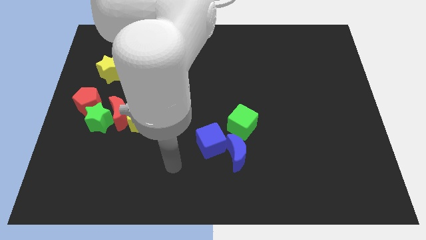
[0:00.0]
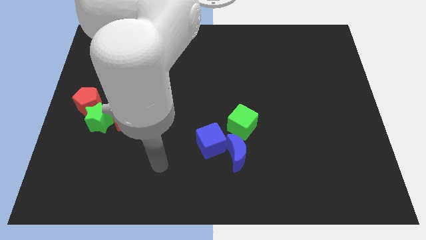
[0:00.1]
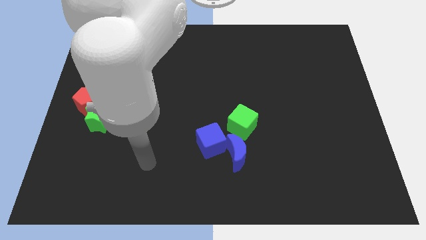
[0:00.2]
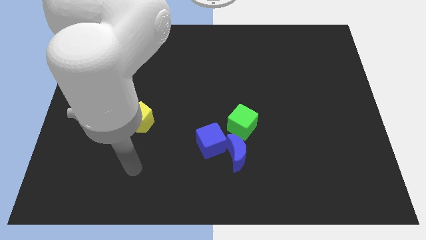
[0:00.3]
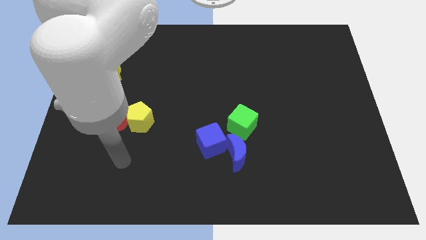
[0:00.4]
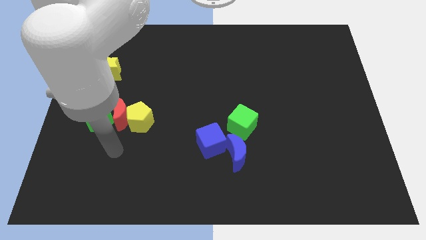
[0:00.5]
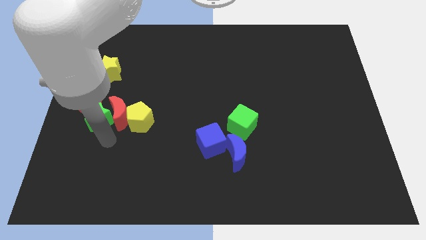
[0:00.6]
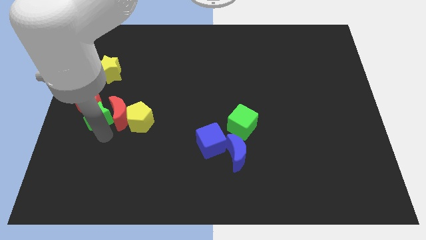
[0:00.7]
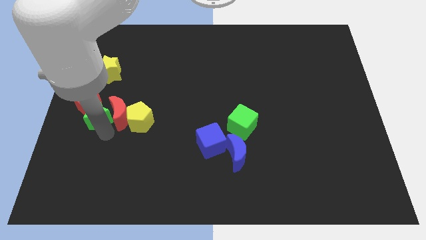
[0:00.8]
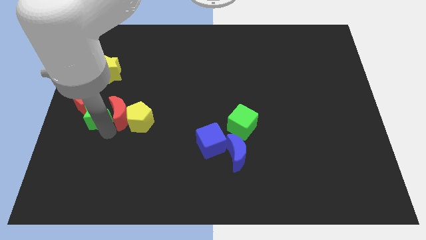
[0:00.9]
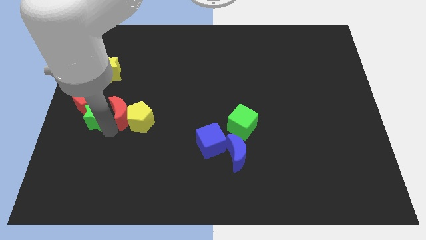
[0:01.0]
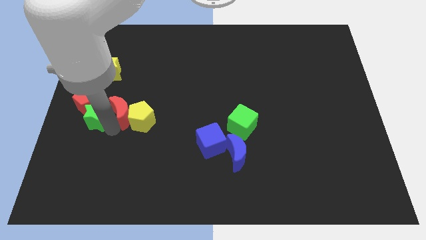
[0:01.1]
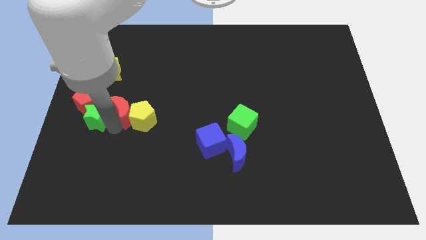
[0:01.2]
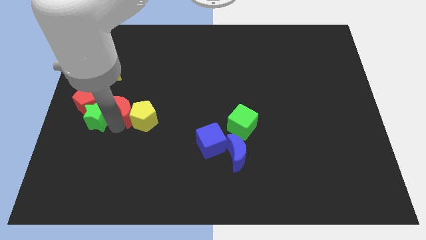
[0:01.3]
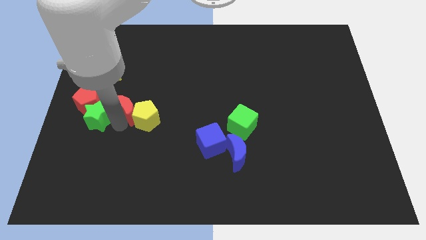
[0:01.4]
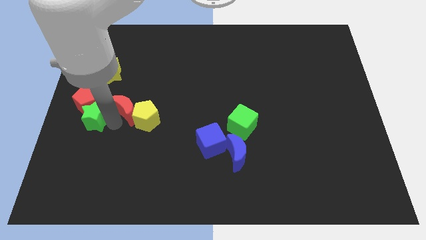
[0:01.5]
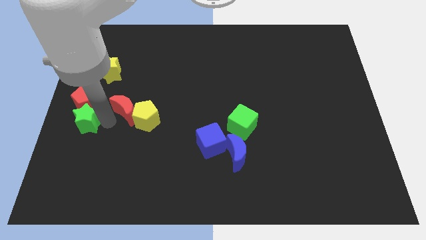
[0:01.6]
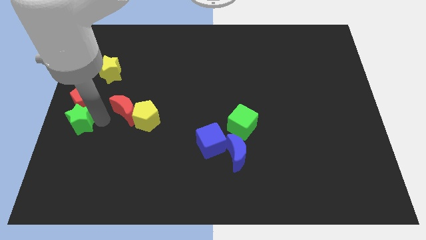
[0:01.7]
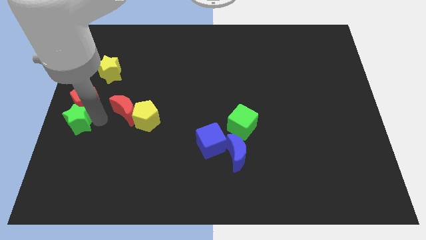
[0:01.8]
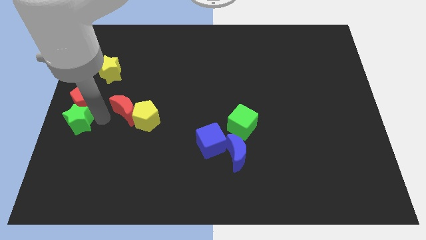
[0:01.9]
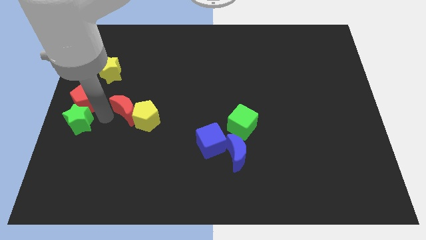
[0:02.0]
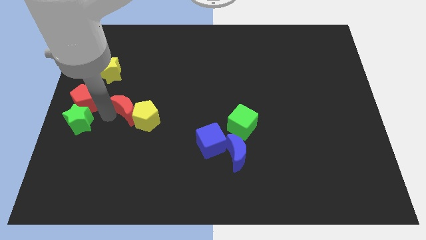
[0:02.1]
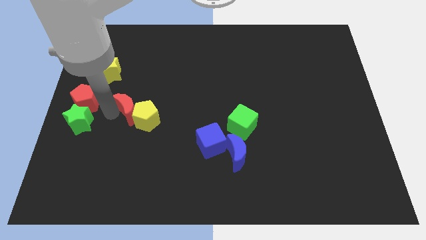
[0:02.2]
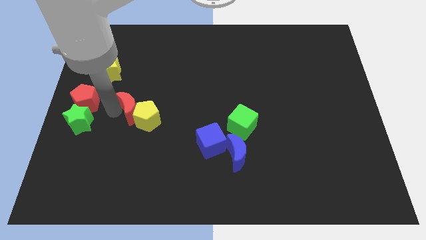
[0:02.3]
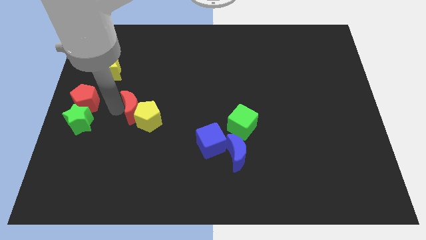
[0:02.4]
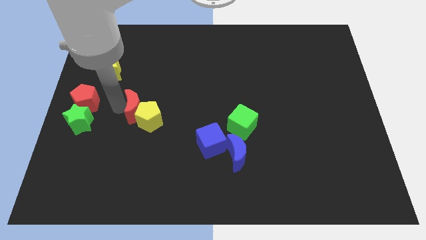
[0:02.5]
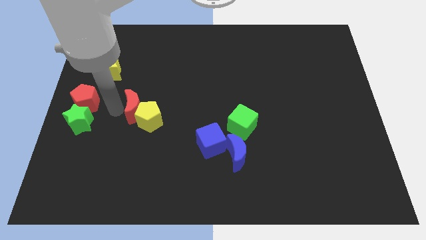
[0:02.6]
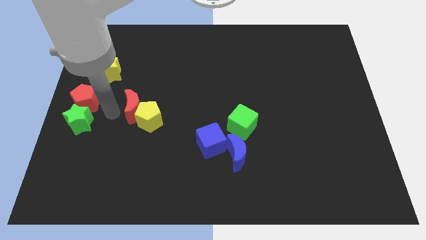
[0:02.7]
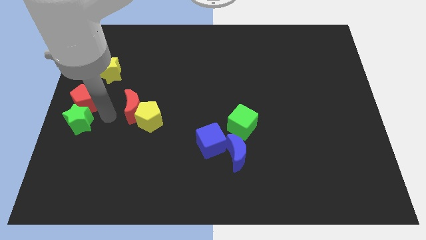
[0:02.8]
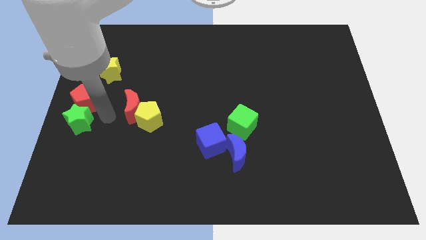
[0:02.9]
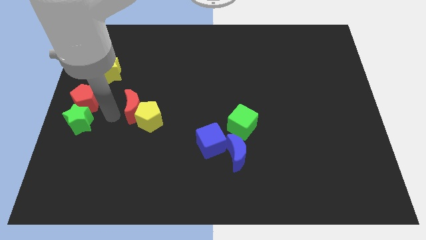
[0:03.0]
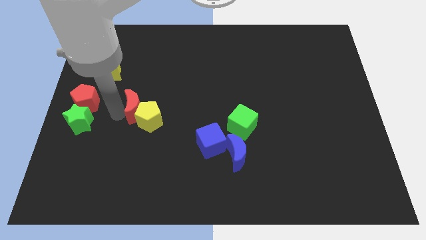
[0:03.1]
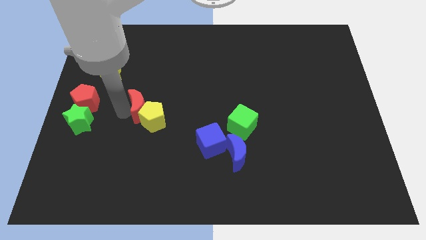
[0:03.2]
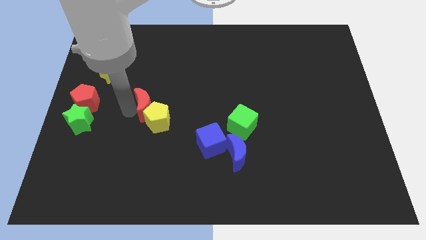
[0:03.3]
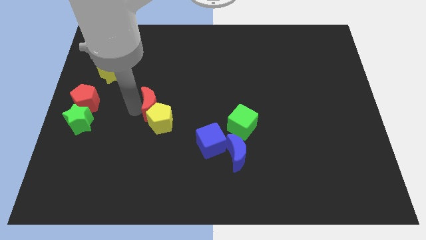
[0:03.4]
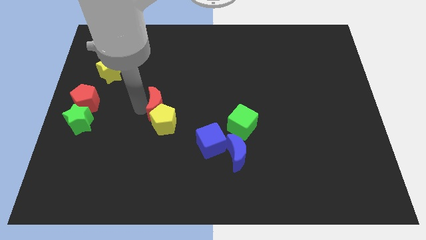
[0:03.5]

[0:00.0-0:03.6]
separate the red moon from the clump

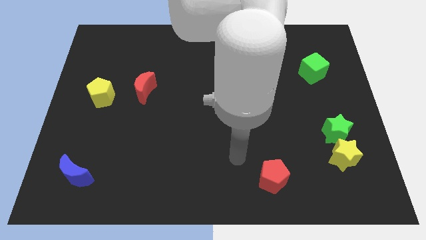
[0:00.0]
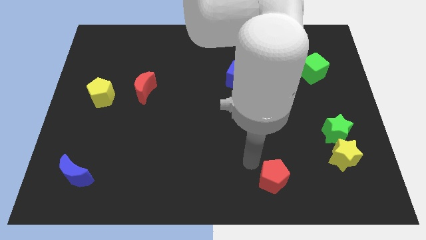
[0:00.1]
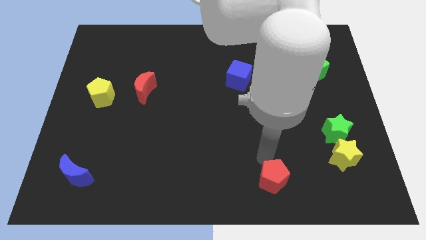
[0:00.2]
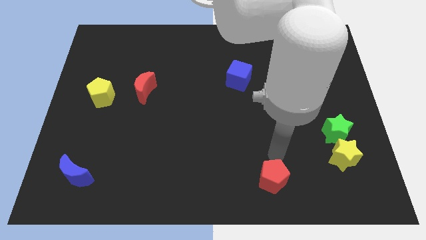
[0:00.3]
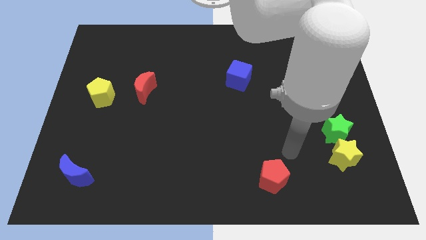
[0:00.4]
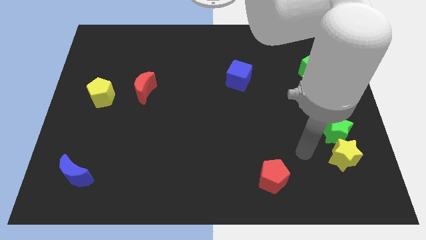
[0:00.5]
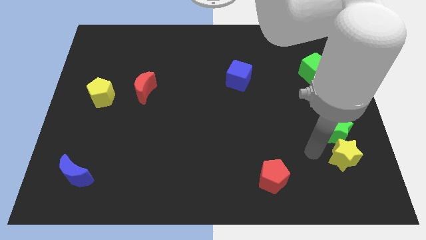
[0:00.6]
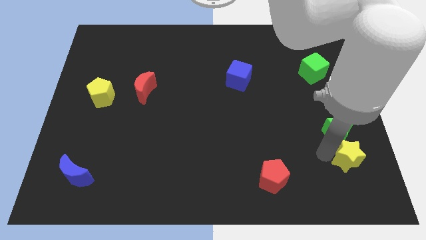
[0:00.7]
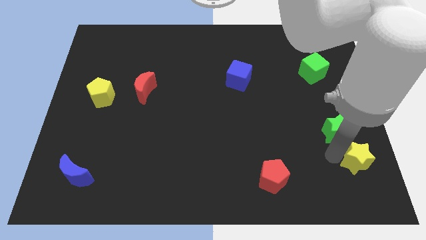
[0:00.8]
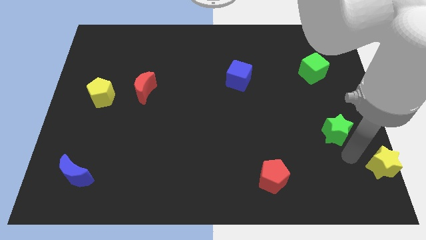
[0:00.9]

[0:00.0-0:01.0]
pull the green star apart from the yellow star

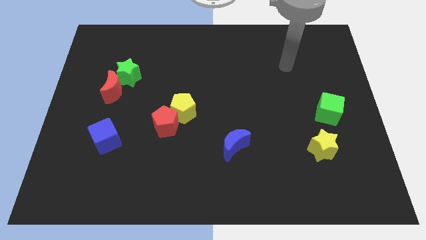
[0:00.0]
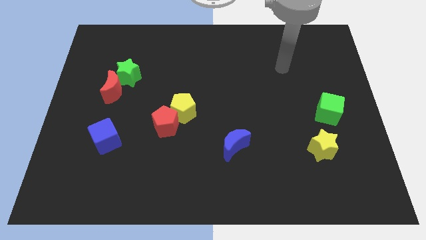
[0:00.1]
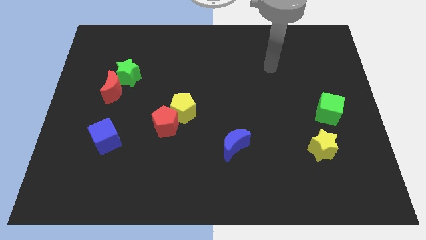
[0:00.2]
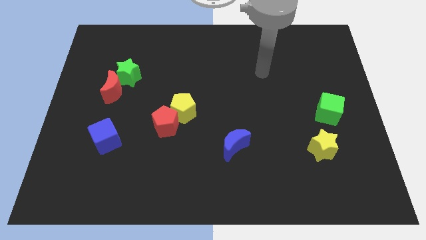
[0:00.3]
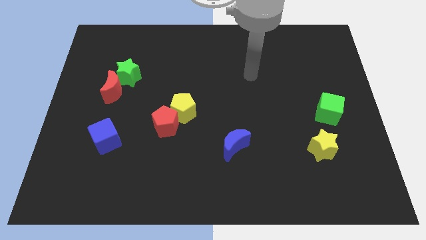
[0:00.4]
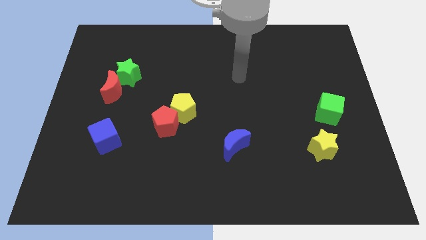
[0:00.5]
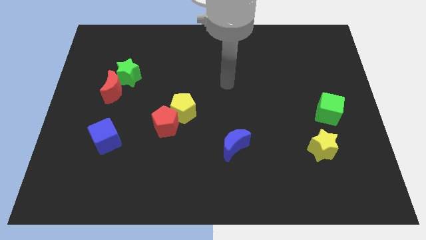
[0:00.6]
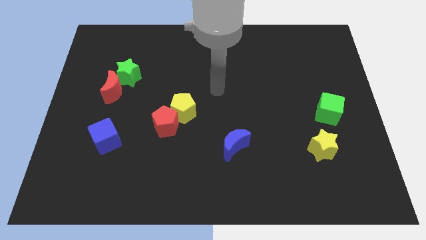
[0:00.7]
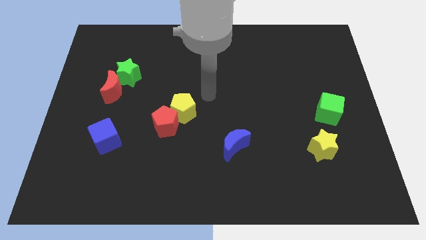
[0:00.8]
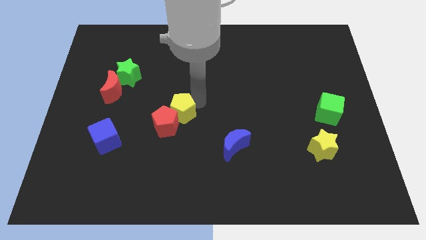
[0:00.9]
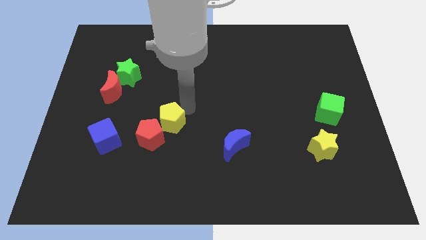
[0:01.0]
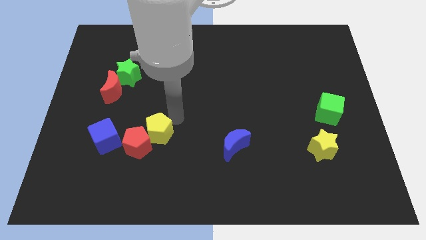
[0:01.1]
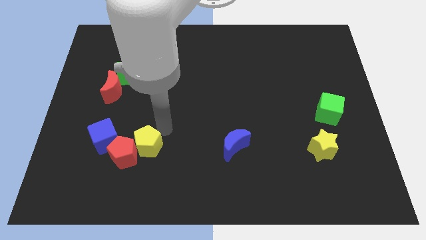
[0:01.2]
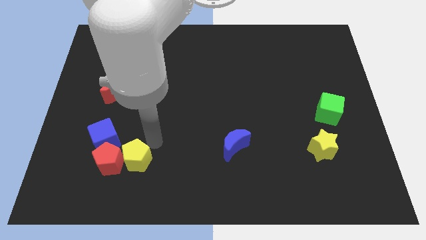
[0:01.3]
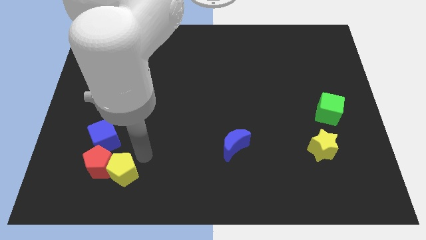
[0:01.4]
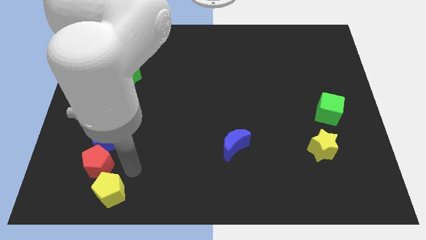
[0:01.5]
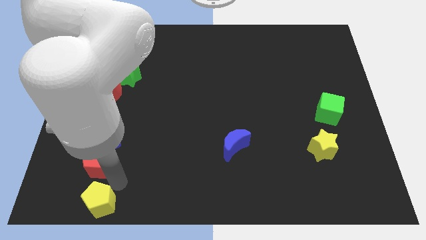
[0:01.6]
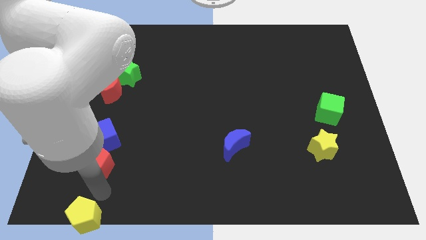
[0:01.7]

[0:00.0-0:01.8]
separate the red pentagon from the yellow pentagon

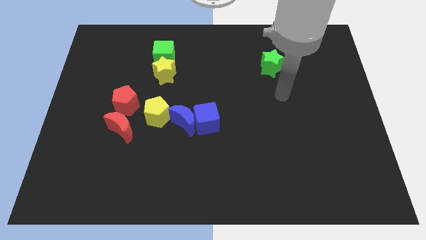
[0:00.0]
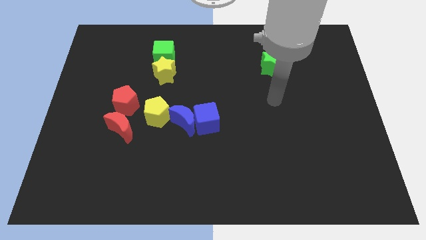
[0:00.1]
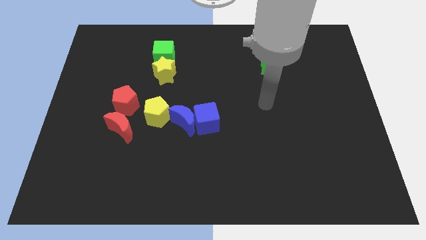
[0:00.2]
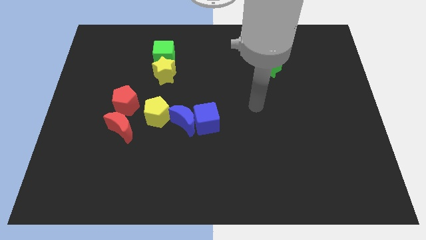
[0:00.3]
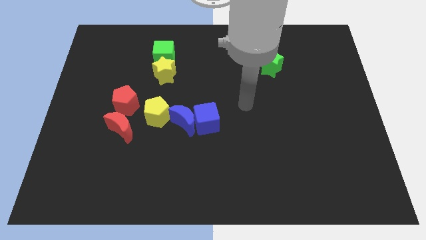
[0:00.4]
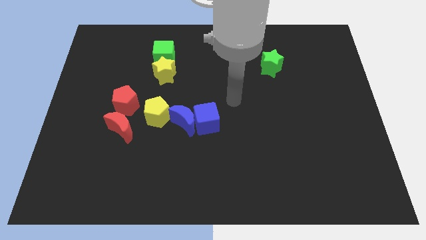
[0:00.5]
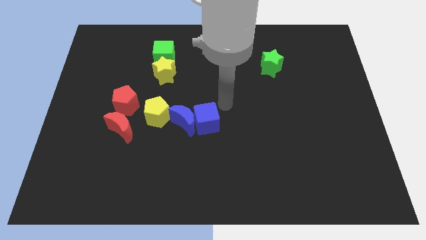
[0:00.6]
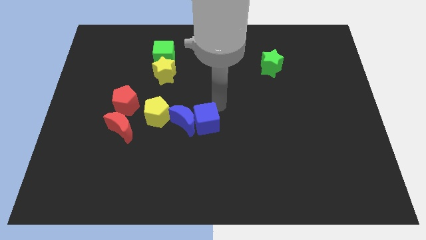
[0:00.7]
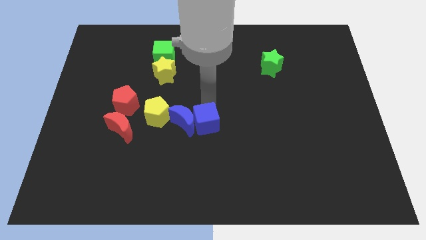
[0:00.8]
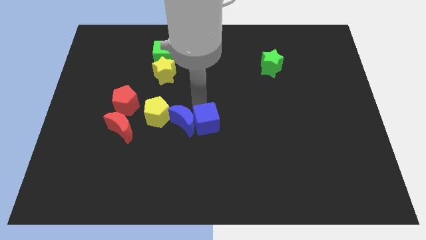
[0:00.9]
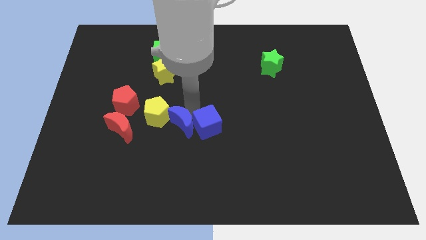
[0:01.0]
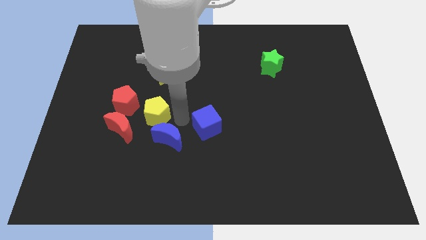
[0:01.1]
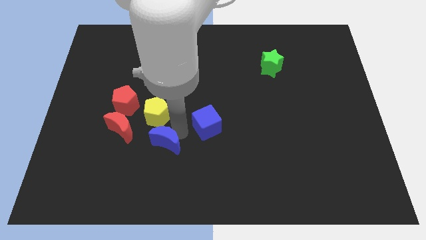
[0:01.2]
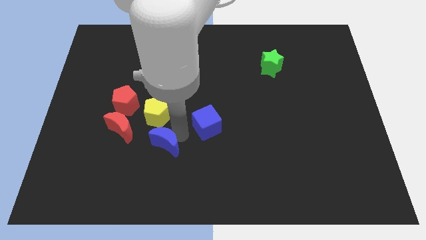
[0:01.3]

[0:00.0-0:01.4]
separate the blue cube from the blue moon

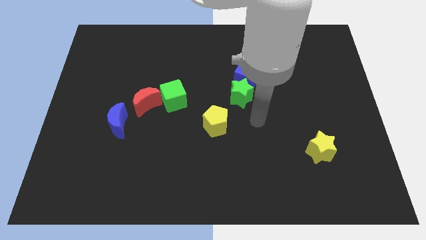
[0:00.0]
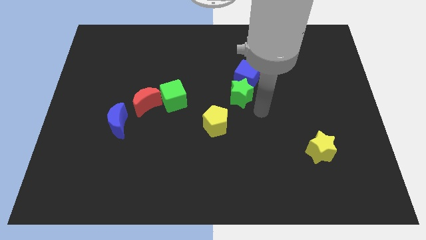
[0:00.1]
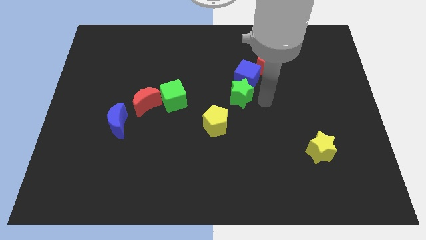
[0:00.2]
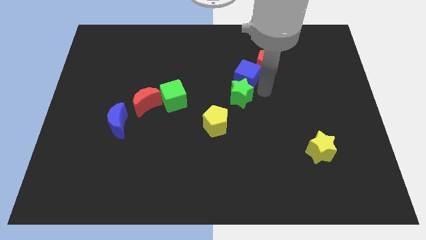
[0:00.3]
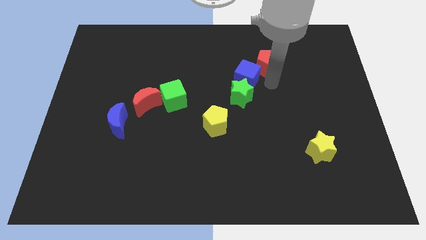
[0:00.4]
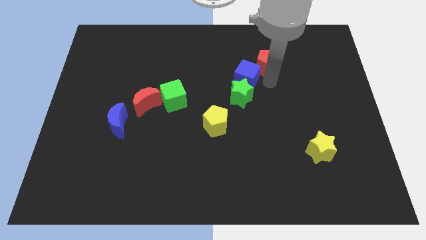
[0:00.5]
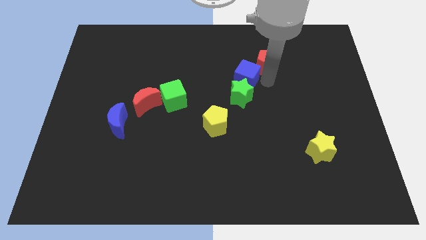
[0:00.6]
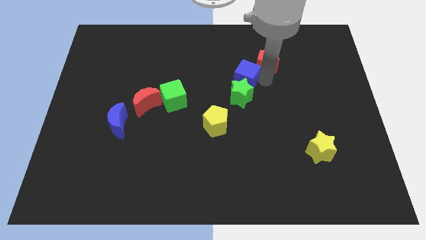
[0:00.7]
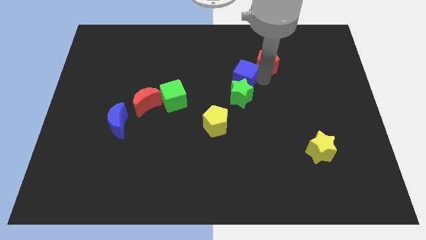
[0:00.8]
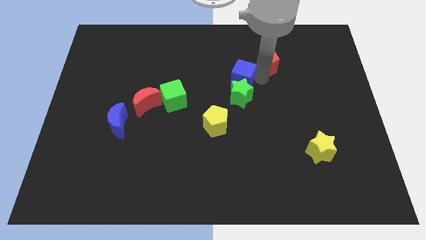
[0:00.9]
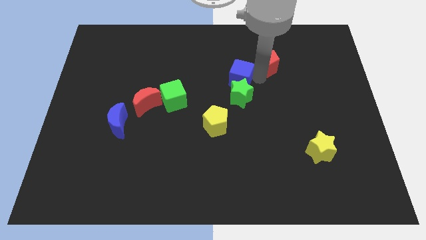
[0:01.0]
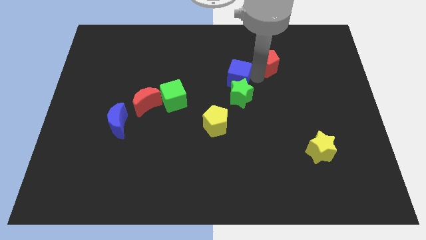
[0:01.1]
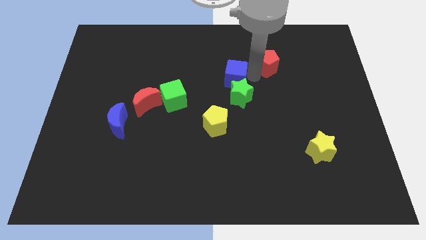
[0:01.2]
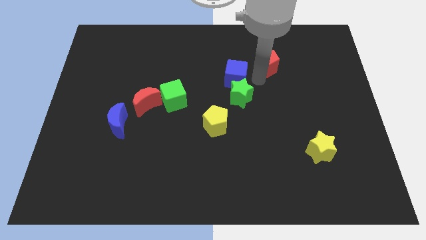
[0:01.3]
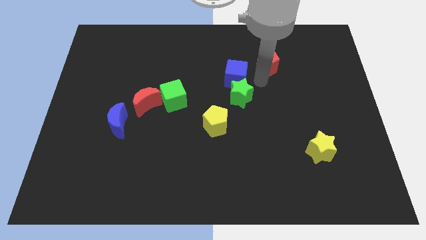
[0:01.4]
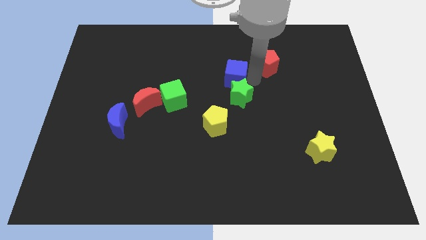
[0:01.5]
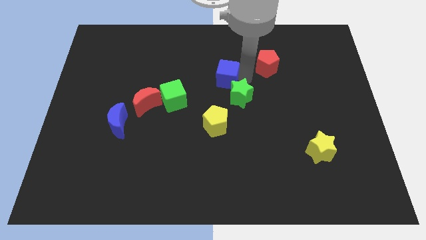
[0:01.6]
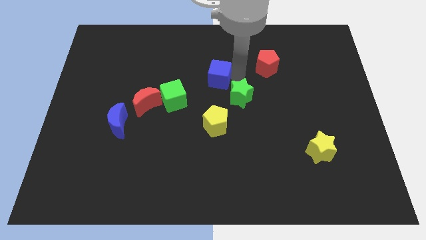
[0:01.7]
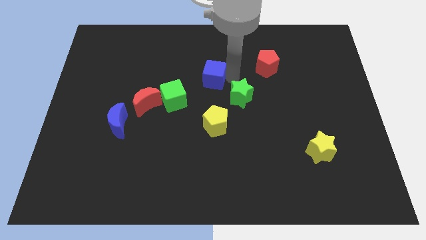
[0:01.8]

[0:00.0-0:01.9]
separate the blue cube from the green star and red pentagon
